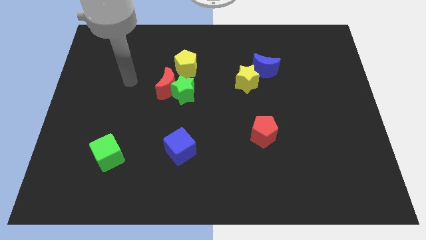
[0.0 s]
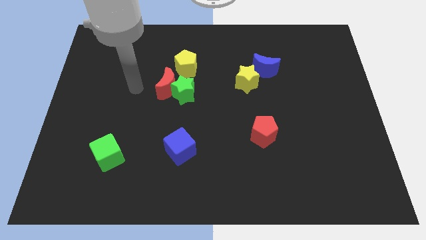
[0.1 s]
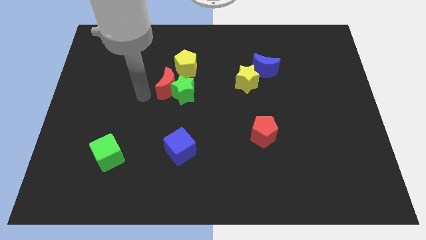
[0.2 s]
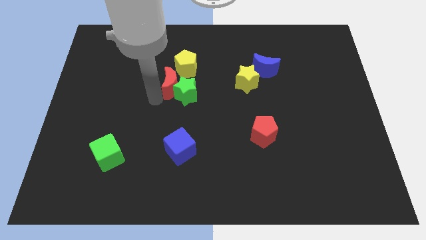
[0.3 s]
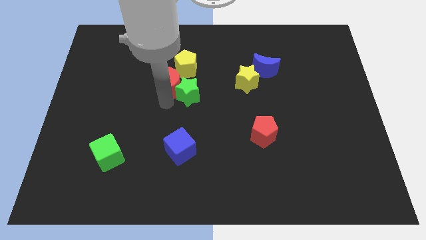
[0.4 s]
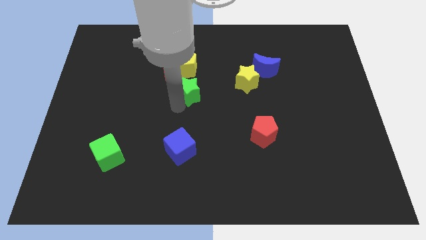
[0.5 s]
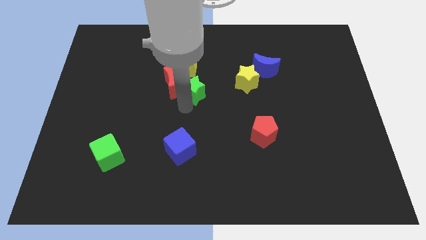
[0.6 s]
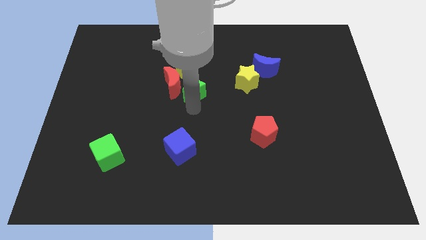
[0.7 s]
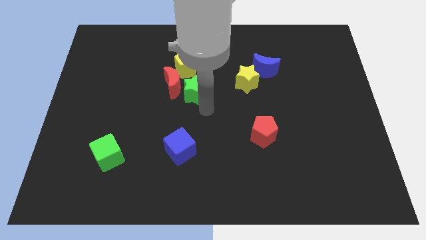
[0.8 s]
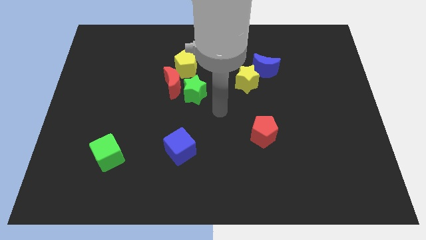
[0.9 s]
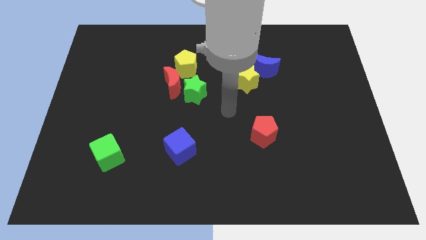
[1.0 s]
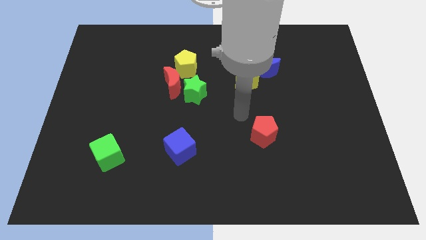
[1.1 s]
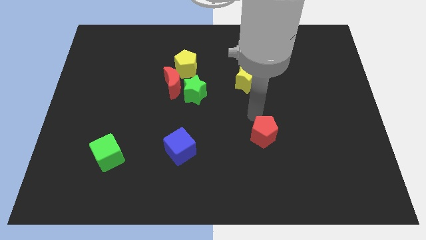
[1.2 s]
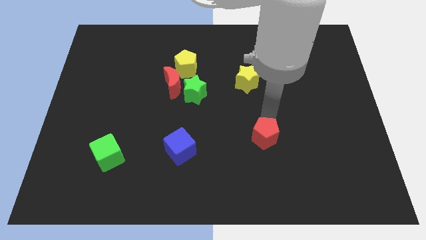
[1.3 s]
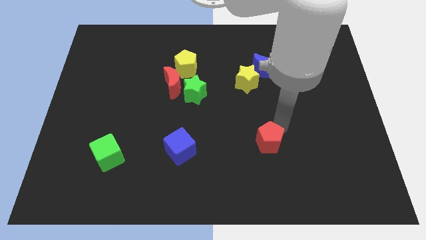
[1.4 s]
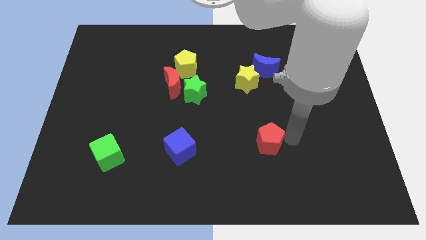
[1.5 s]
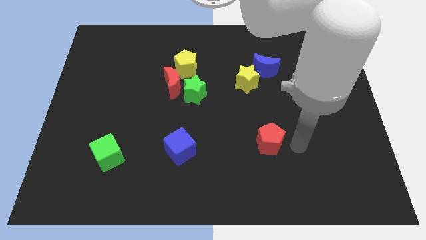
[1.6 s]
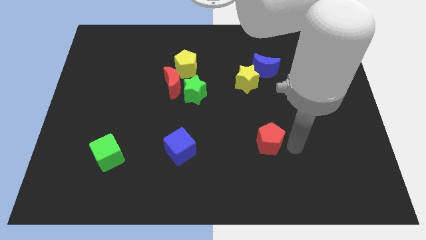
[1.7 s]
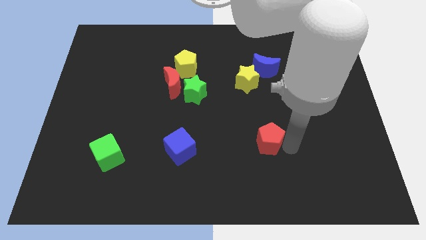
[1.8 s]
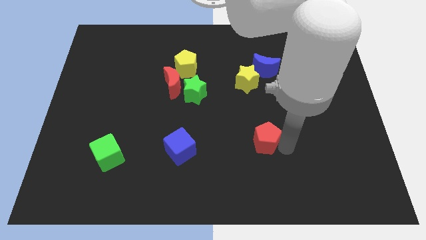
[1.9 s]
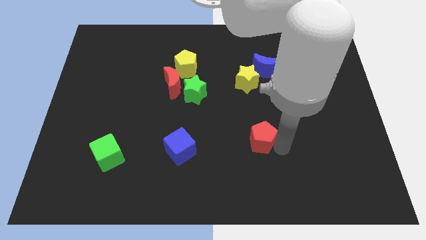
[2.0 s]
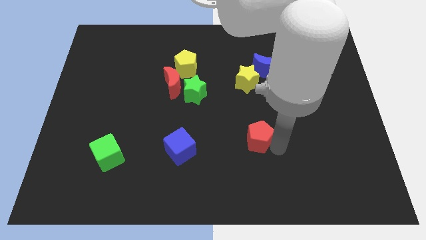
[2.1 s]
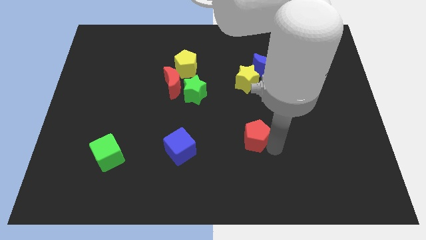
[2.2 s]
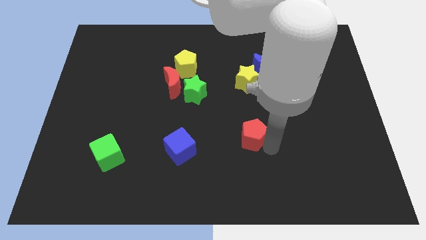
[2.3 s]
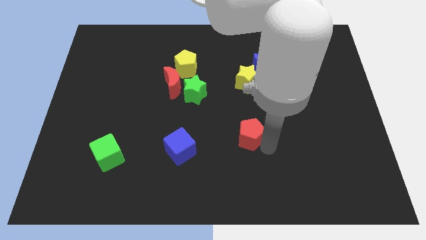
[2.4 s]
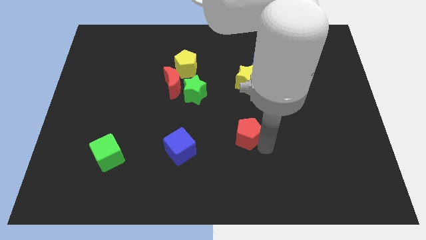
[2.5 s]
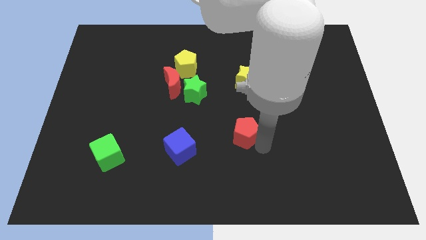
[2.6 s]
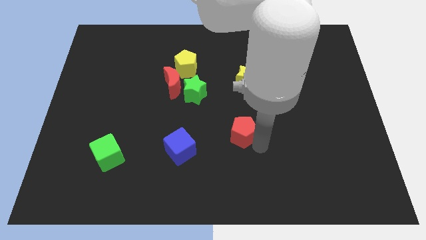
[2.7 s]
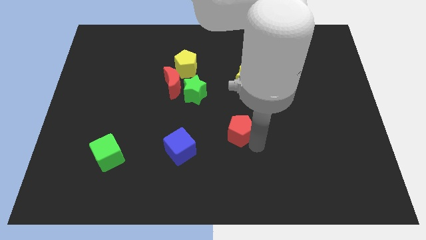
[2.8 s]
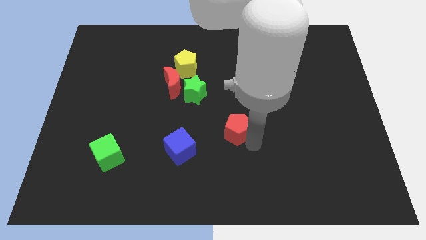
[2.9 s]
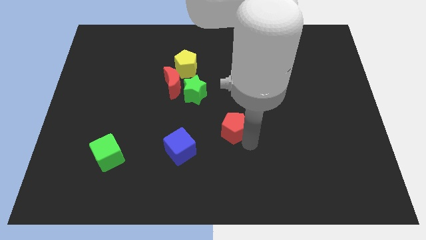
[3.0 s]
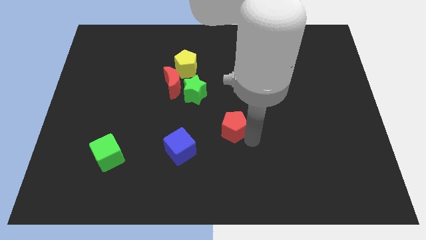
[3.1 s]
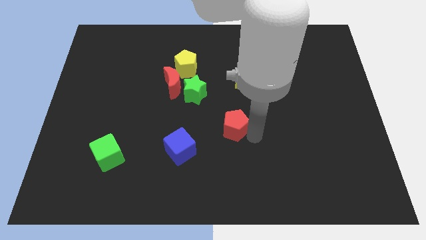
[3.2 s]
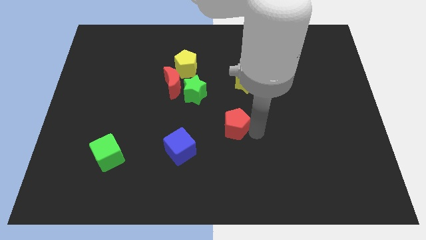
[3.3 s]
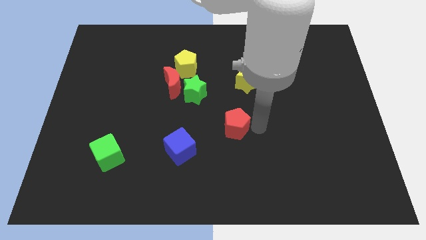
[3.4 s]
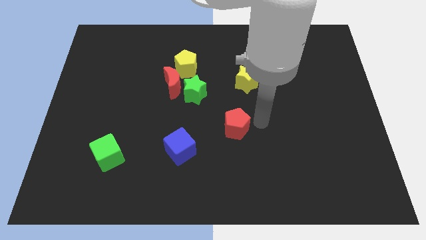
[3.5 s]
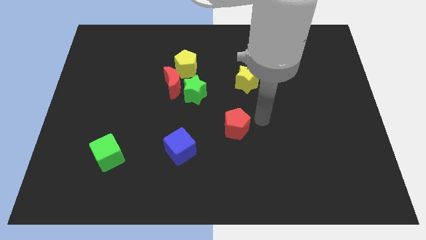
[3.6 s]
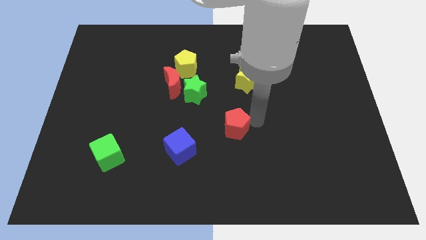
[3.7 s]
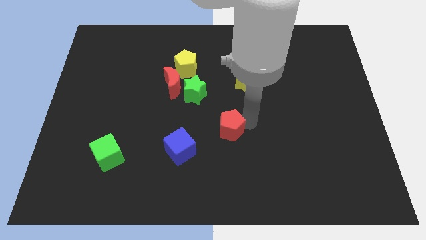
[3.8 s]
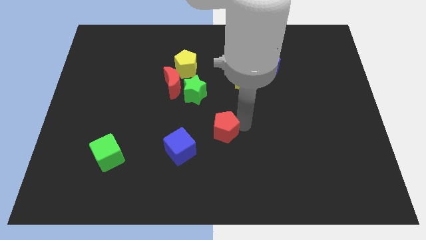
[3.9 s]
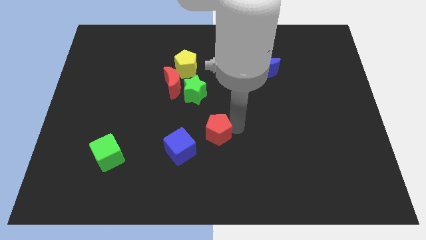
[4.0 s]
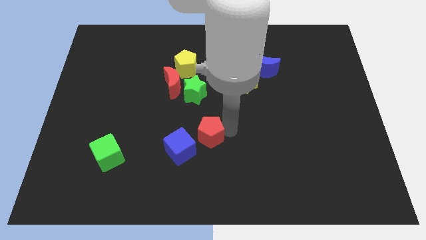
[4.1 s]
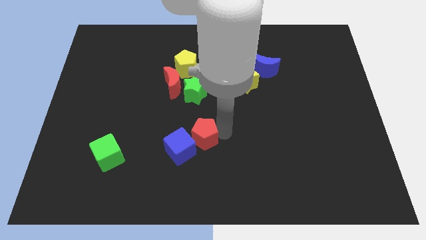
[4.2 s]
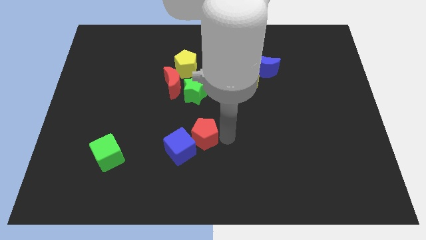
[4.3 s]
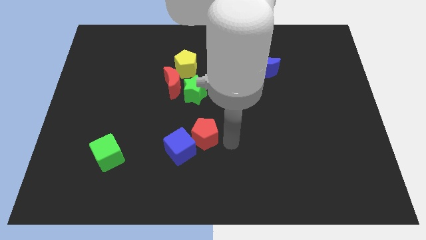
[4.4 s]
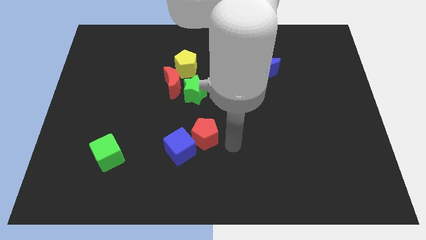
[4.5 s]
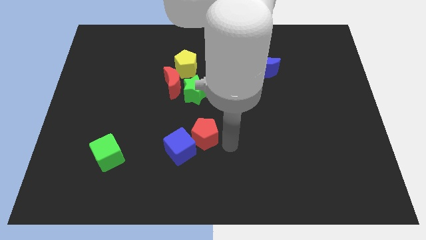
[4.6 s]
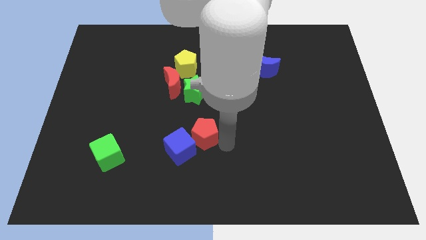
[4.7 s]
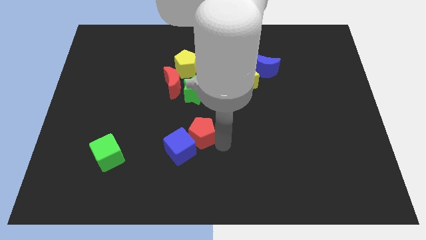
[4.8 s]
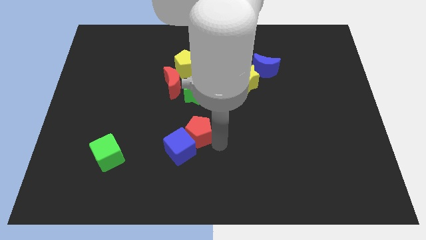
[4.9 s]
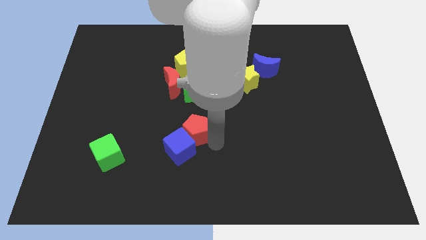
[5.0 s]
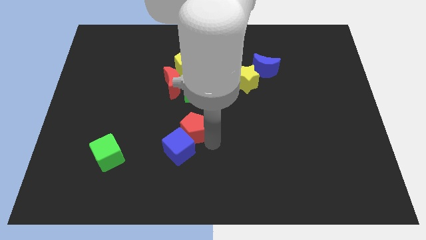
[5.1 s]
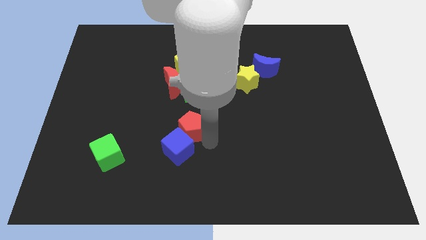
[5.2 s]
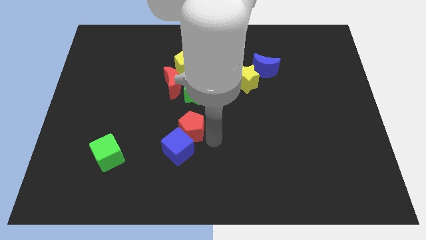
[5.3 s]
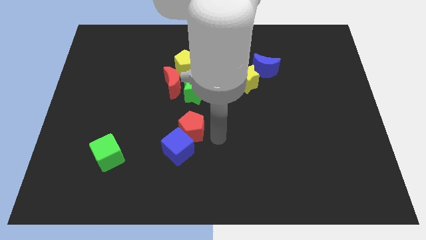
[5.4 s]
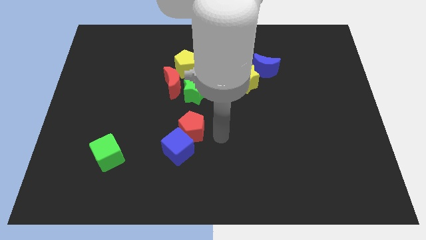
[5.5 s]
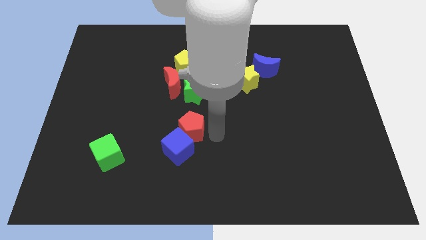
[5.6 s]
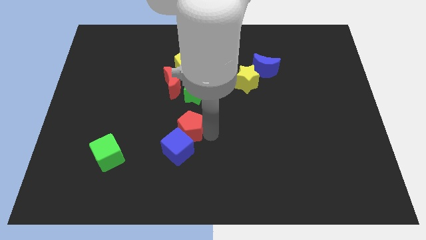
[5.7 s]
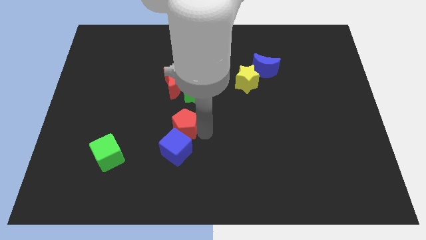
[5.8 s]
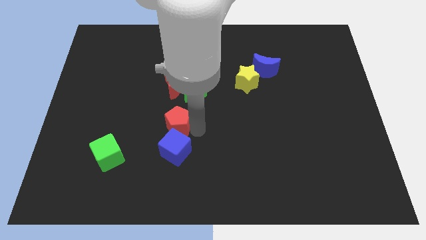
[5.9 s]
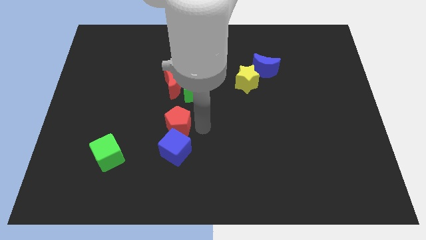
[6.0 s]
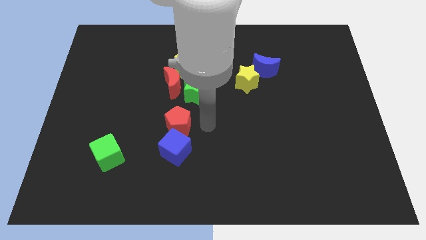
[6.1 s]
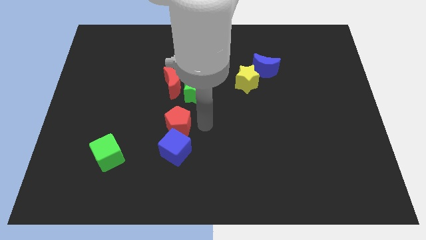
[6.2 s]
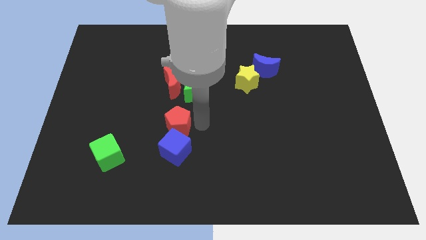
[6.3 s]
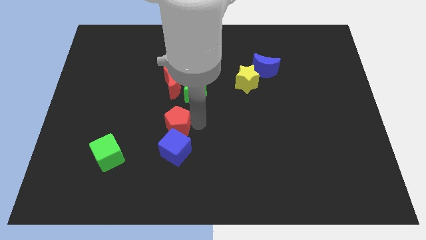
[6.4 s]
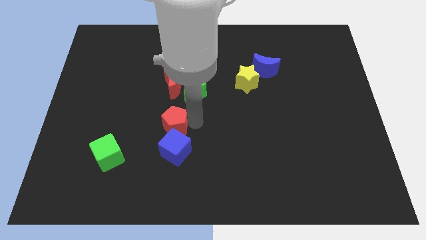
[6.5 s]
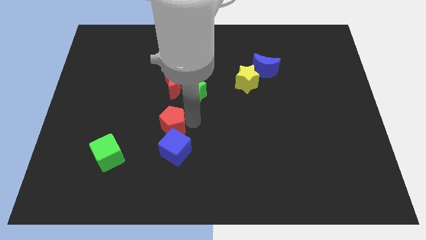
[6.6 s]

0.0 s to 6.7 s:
push the red pentagon left

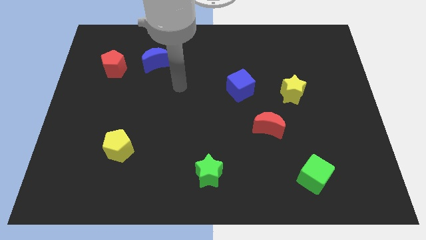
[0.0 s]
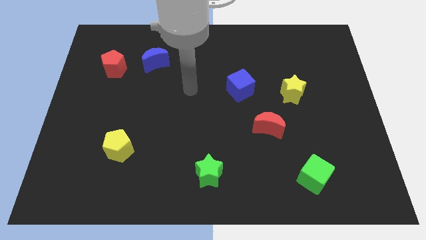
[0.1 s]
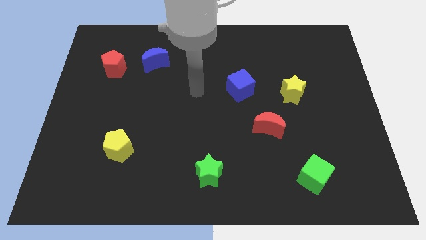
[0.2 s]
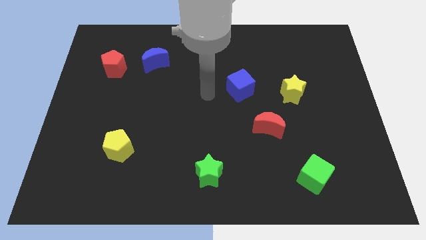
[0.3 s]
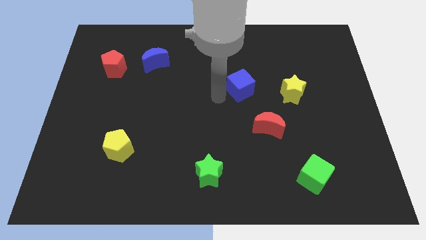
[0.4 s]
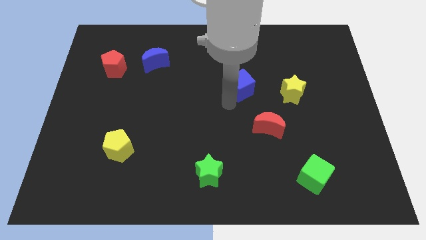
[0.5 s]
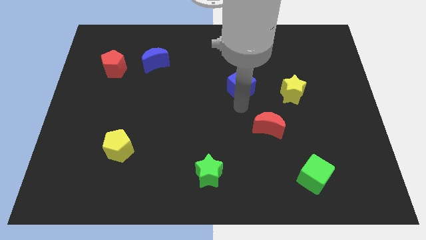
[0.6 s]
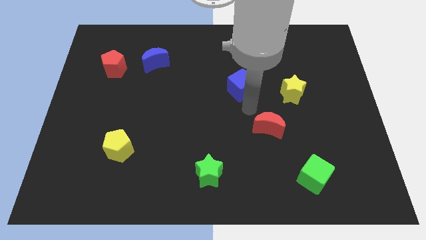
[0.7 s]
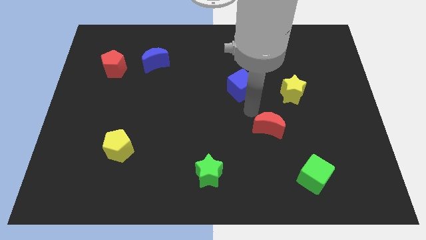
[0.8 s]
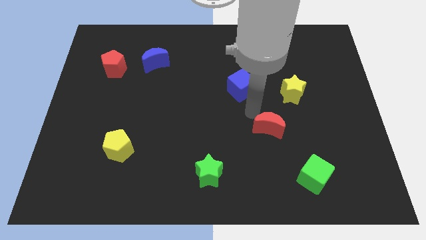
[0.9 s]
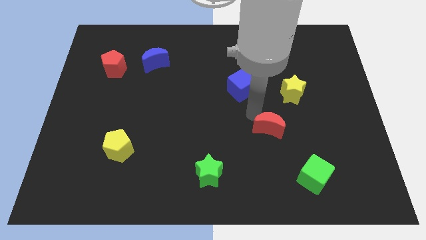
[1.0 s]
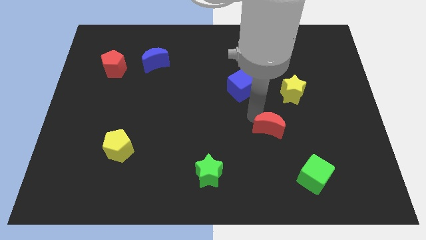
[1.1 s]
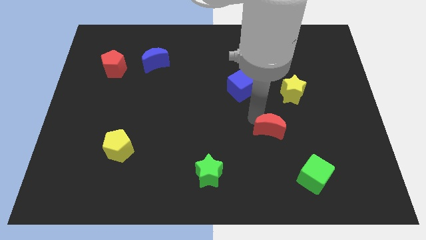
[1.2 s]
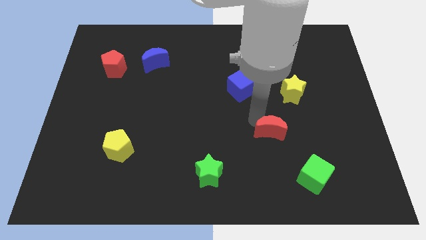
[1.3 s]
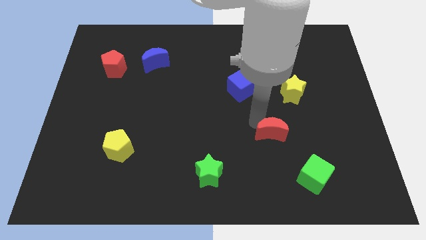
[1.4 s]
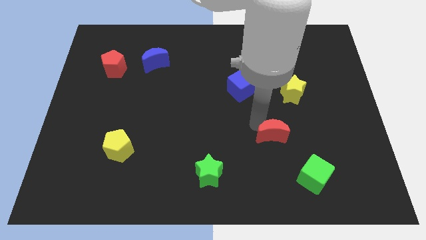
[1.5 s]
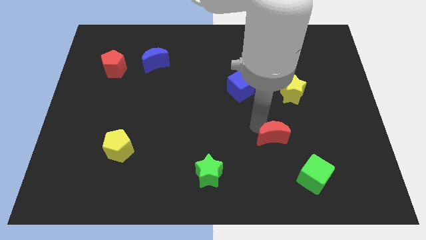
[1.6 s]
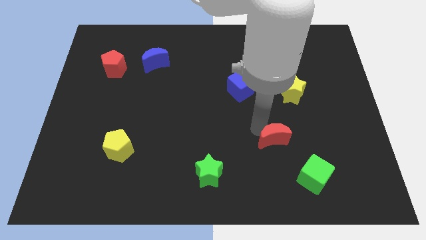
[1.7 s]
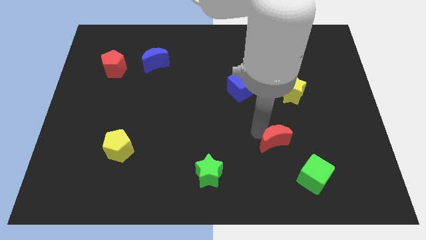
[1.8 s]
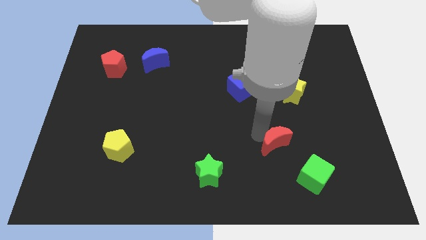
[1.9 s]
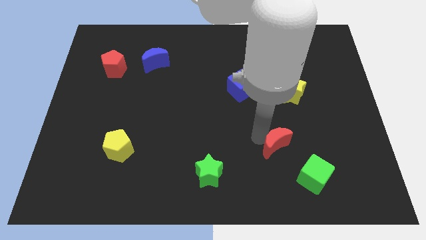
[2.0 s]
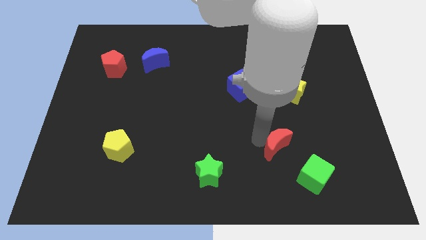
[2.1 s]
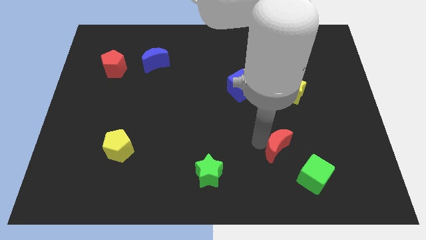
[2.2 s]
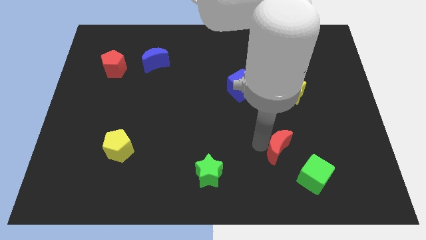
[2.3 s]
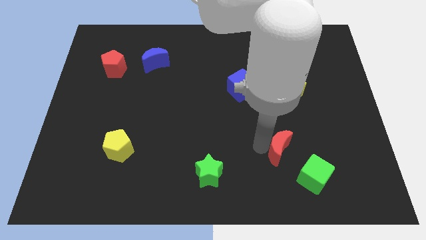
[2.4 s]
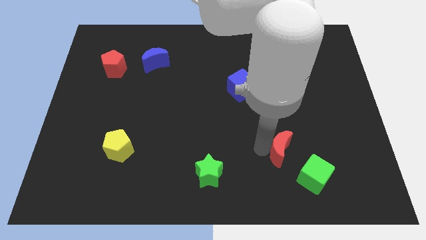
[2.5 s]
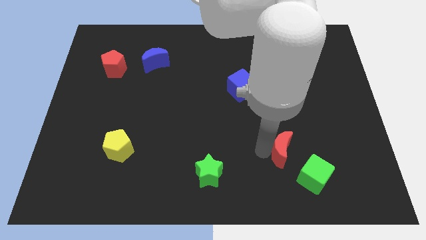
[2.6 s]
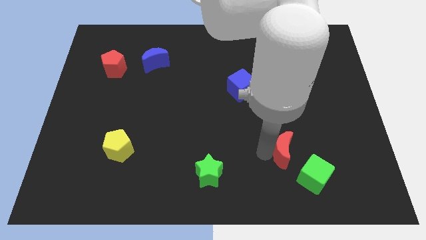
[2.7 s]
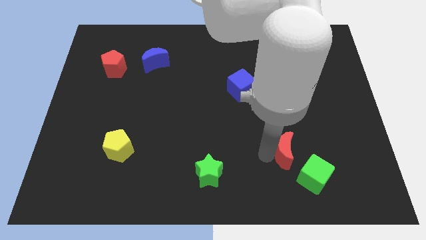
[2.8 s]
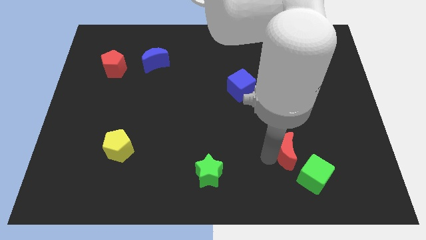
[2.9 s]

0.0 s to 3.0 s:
slightly slide the red moon downwards and then right
